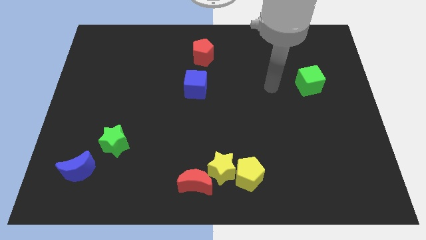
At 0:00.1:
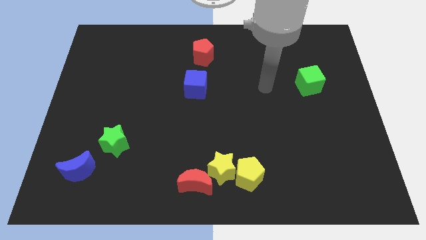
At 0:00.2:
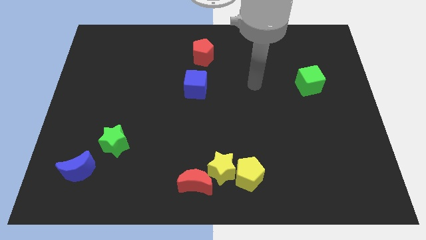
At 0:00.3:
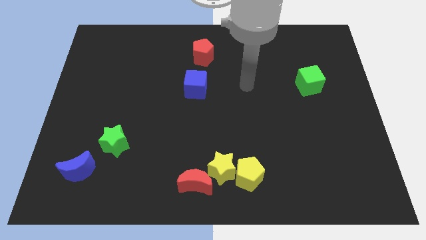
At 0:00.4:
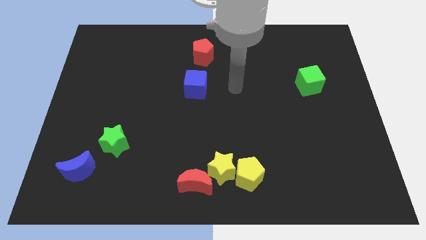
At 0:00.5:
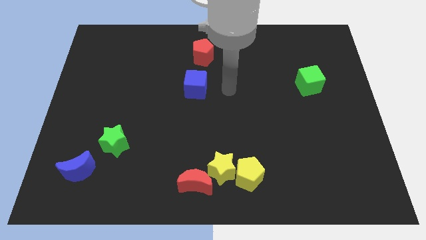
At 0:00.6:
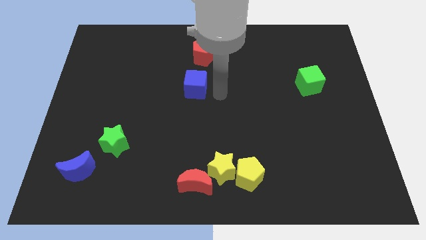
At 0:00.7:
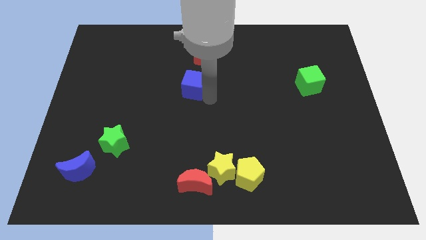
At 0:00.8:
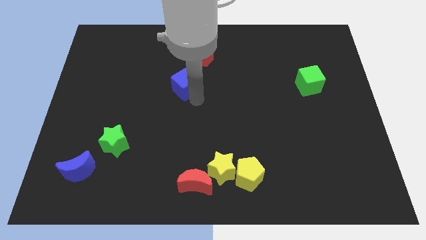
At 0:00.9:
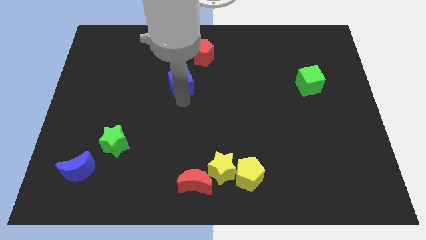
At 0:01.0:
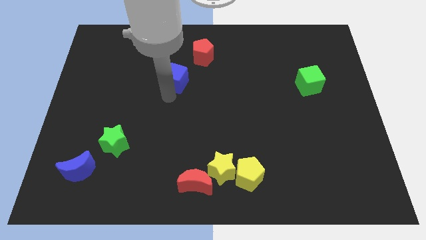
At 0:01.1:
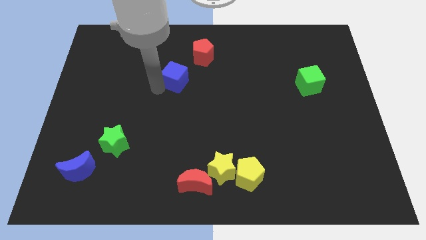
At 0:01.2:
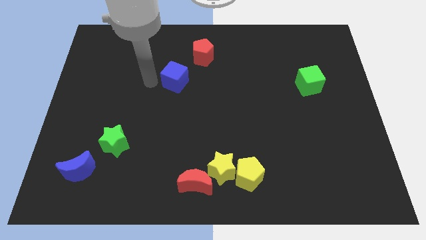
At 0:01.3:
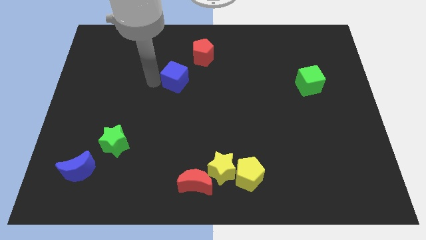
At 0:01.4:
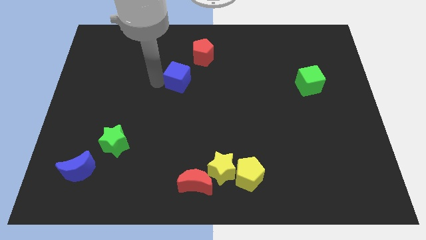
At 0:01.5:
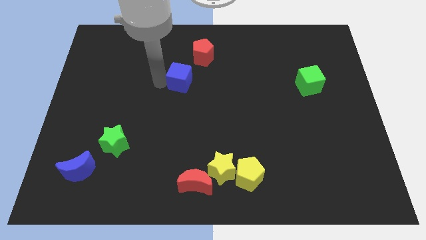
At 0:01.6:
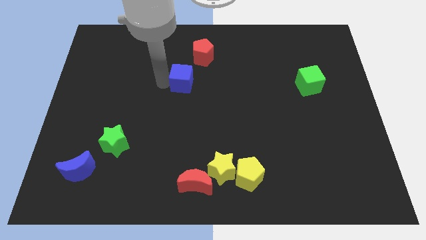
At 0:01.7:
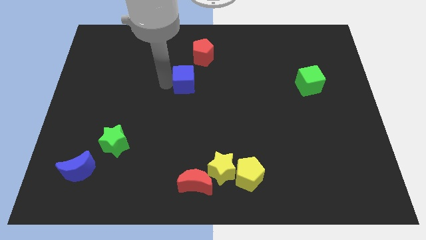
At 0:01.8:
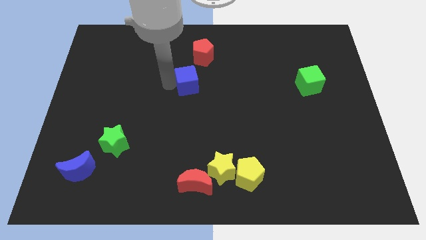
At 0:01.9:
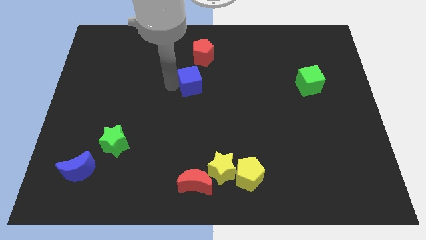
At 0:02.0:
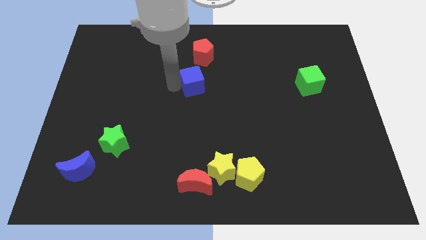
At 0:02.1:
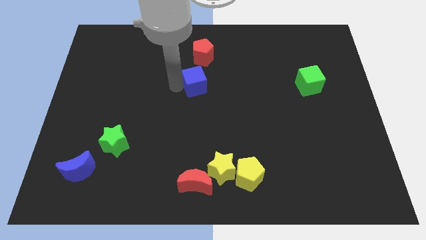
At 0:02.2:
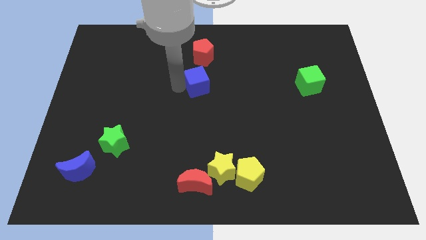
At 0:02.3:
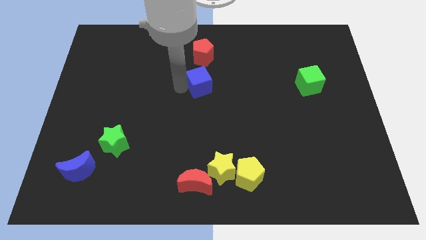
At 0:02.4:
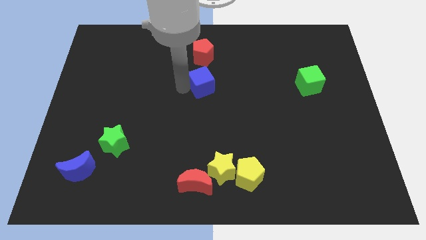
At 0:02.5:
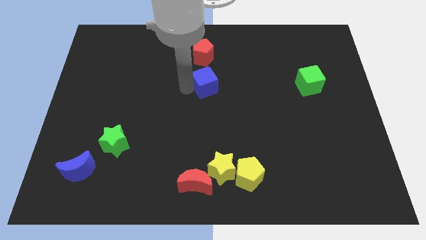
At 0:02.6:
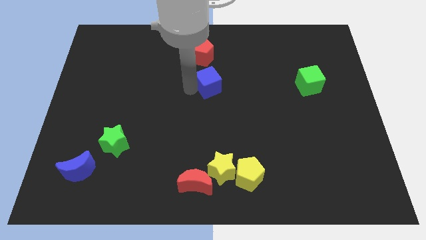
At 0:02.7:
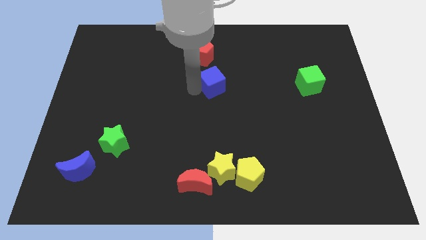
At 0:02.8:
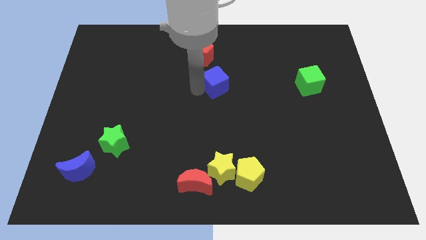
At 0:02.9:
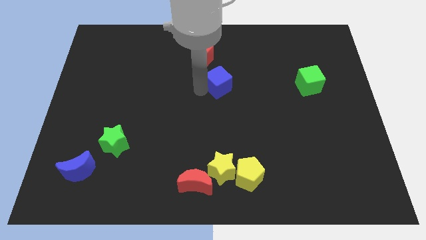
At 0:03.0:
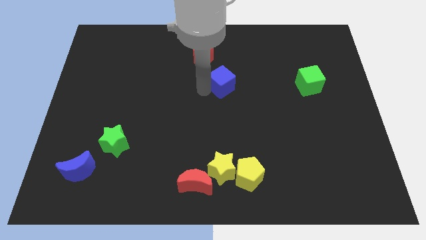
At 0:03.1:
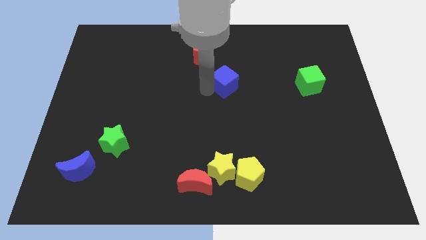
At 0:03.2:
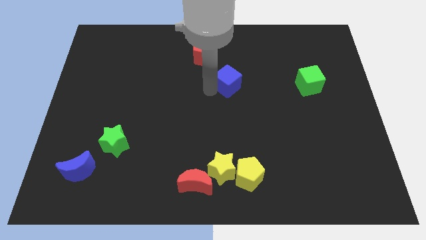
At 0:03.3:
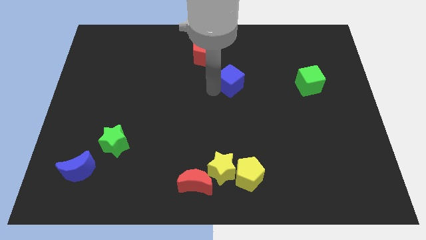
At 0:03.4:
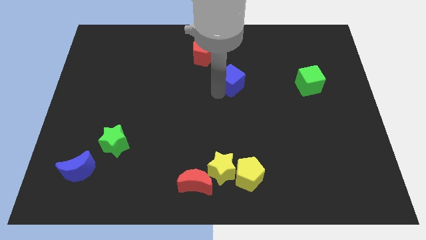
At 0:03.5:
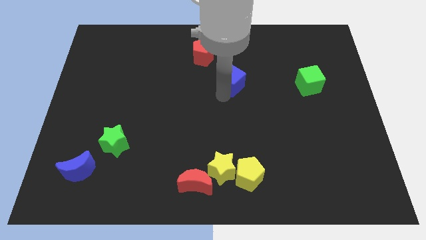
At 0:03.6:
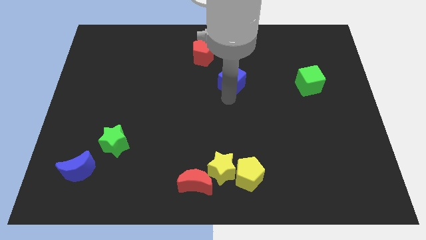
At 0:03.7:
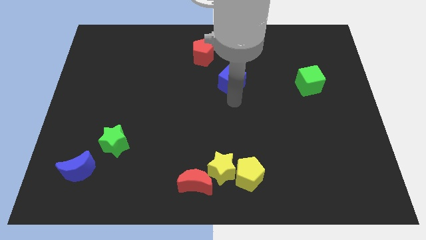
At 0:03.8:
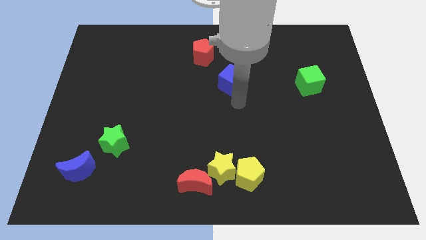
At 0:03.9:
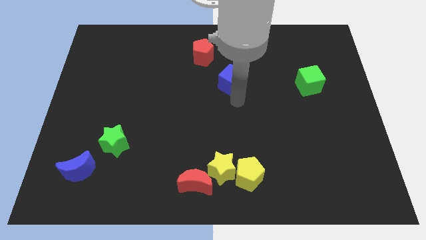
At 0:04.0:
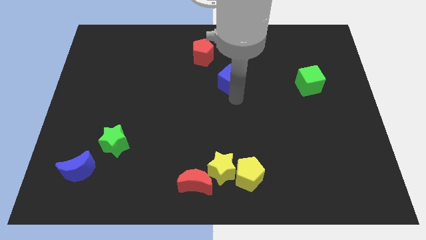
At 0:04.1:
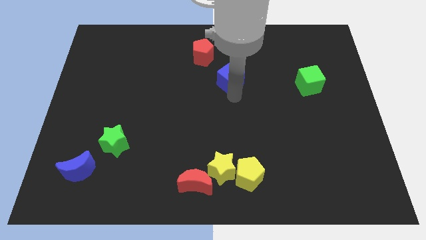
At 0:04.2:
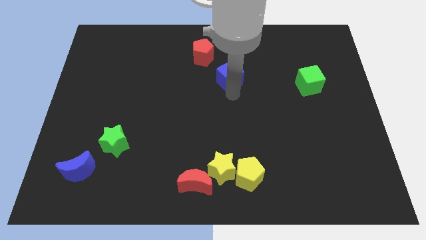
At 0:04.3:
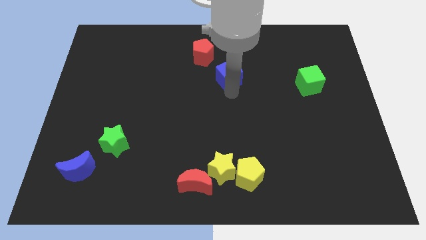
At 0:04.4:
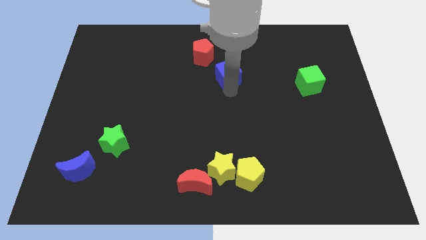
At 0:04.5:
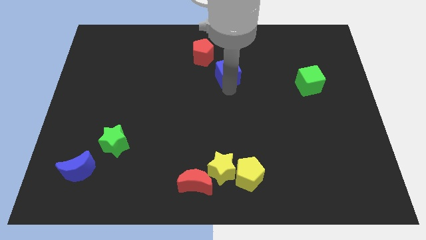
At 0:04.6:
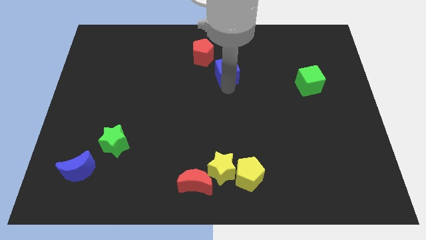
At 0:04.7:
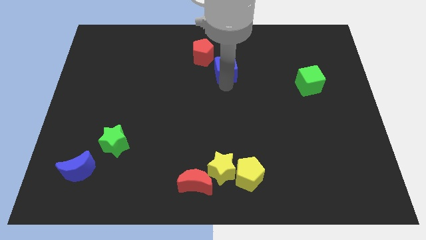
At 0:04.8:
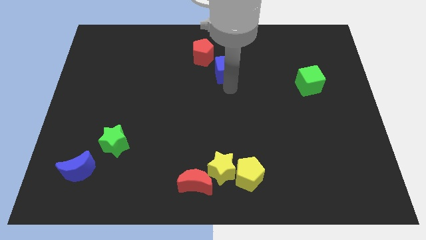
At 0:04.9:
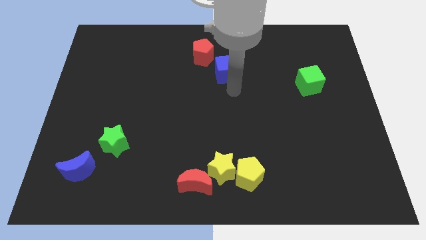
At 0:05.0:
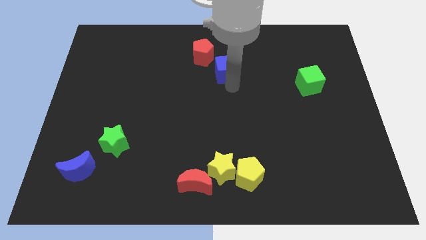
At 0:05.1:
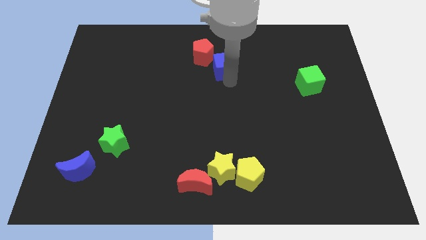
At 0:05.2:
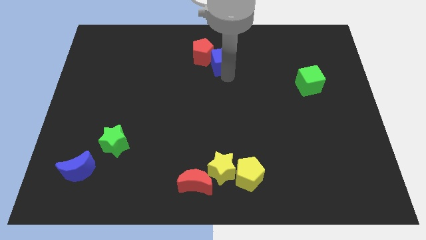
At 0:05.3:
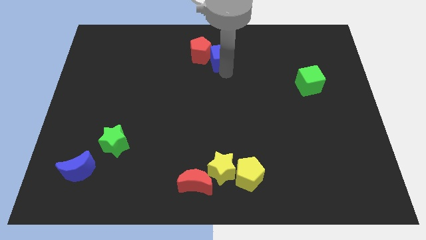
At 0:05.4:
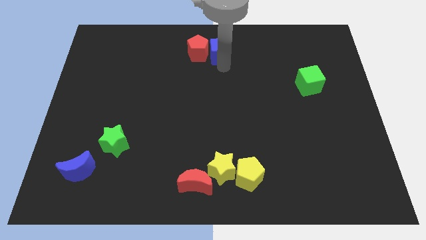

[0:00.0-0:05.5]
push the blue cube to the top side

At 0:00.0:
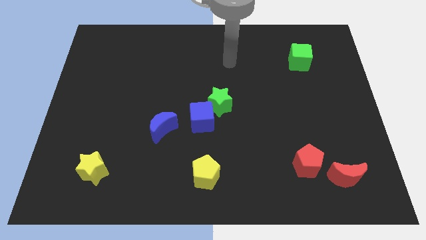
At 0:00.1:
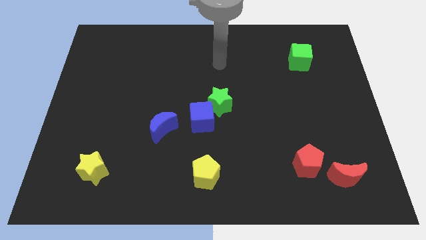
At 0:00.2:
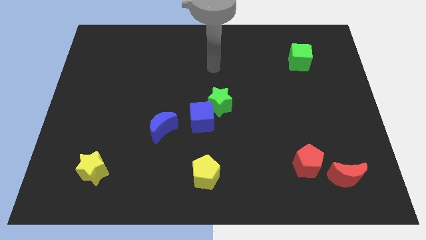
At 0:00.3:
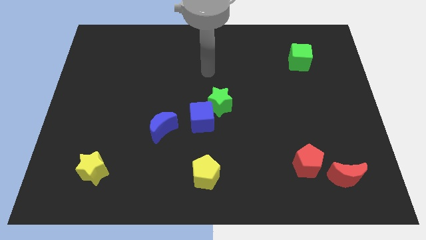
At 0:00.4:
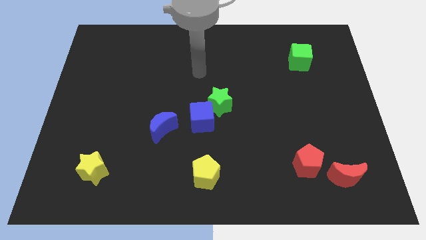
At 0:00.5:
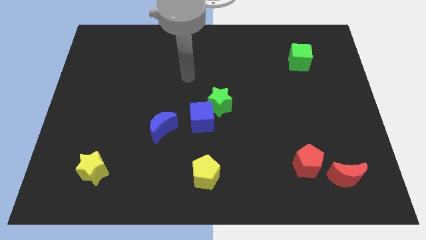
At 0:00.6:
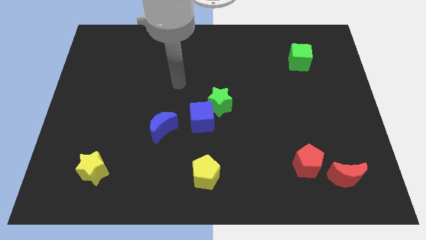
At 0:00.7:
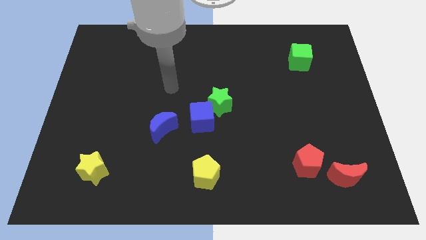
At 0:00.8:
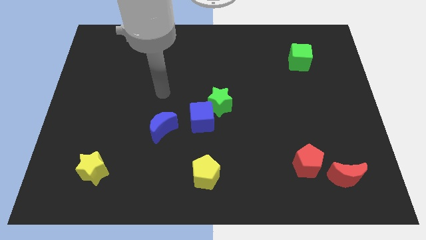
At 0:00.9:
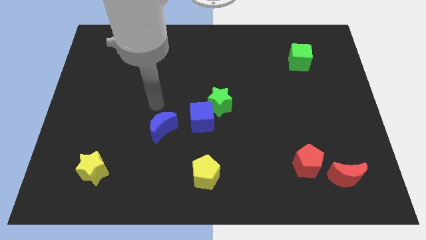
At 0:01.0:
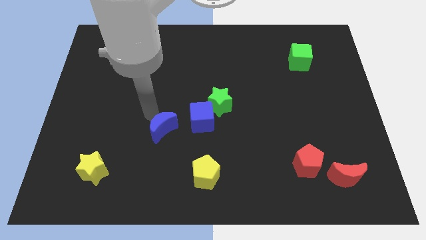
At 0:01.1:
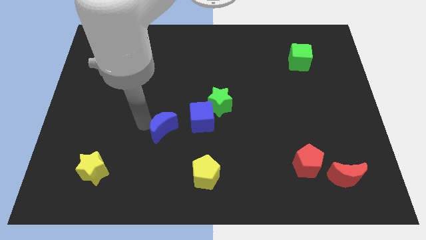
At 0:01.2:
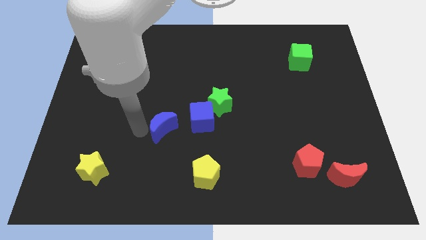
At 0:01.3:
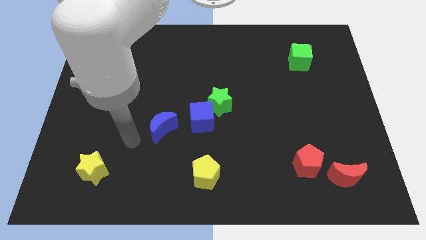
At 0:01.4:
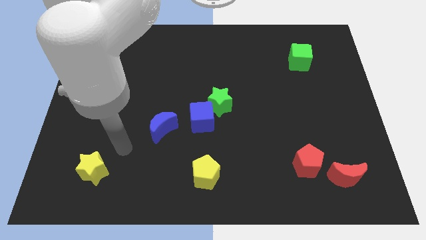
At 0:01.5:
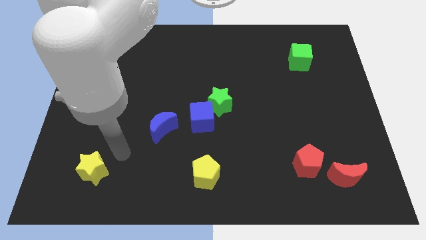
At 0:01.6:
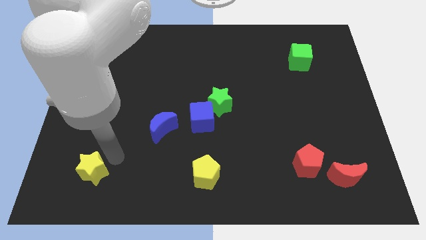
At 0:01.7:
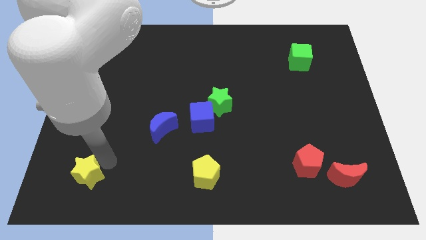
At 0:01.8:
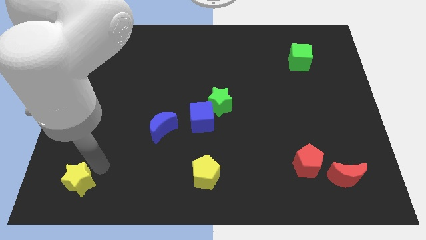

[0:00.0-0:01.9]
move the yellow star to the bottom left of the board
